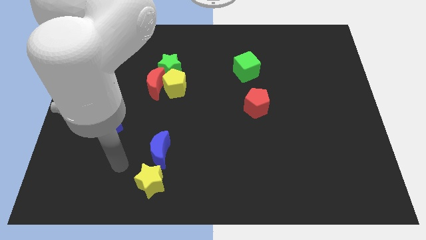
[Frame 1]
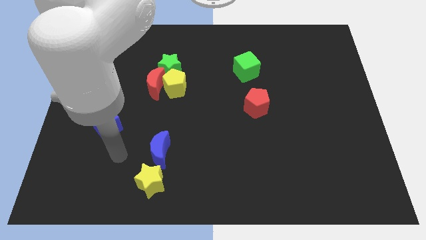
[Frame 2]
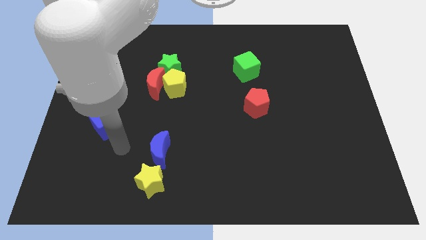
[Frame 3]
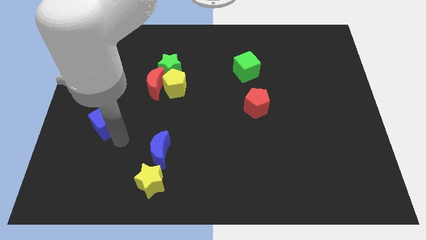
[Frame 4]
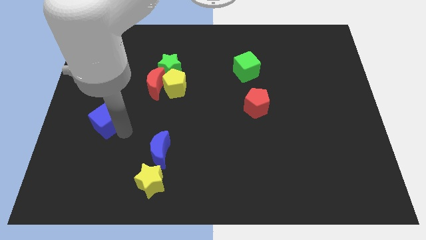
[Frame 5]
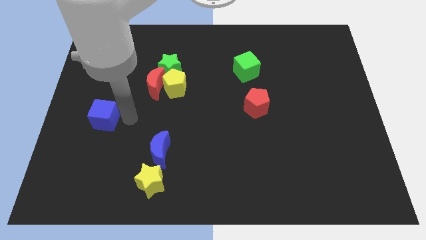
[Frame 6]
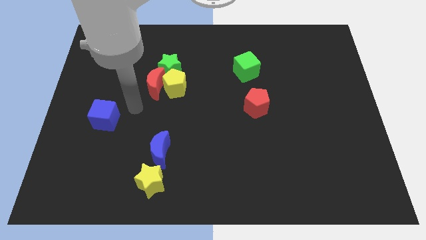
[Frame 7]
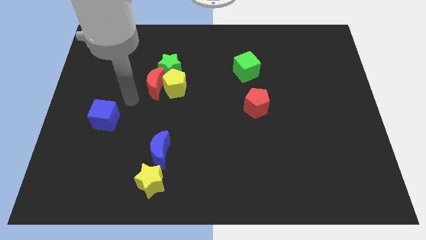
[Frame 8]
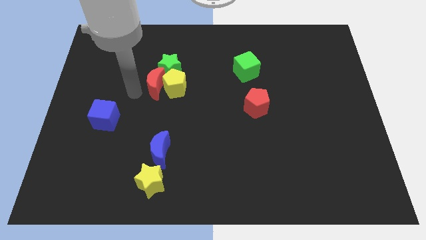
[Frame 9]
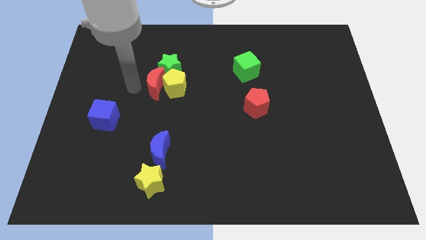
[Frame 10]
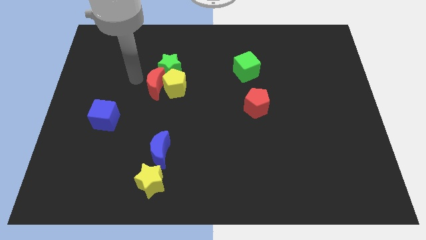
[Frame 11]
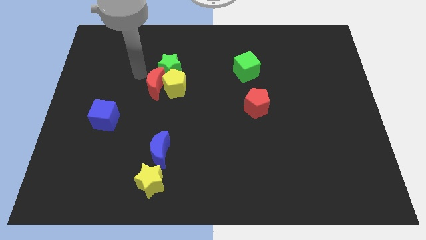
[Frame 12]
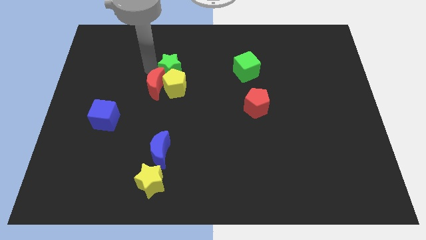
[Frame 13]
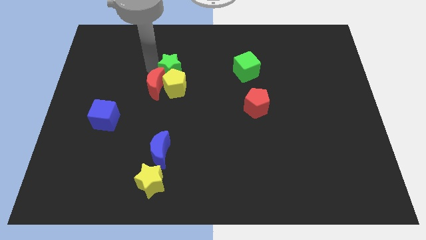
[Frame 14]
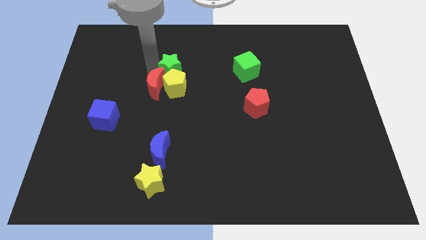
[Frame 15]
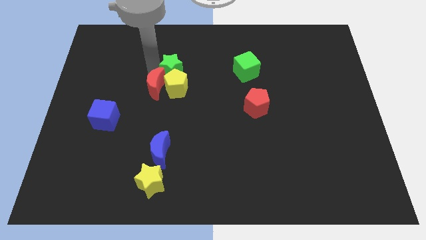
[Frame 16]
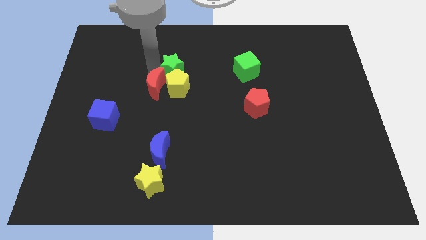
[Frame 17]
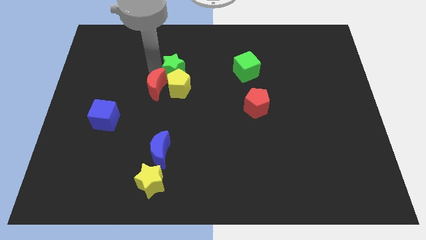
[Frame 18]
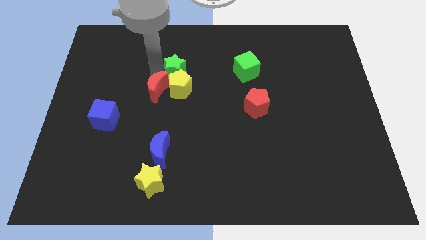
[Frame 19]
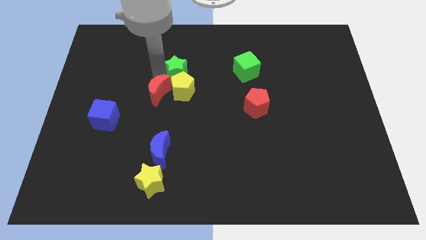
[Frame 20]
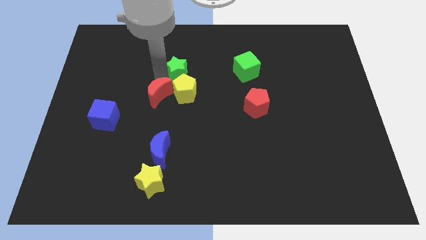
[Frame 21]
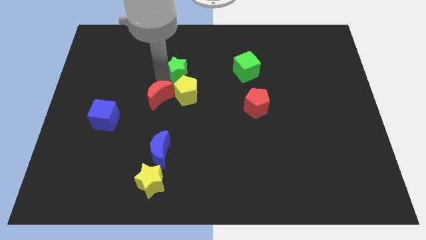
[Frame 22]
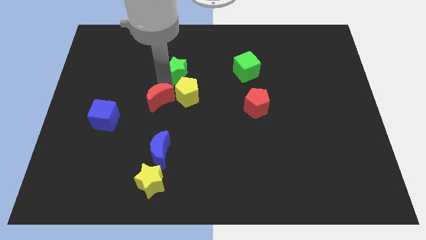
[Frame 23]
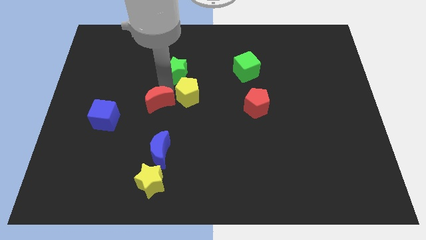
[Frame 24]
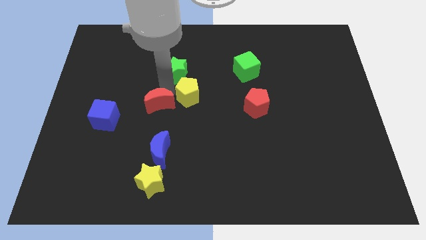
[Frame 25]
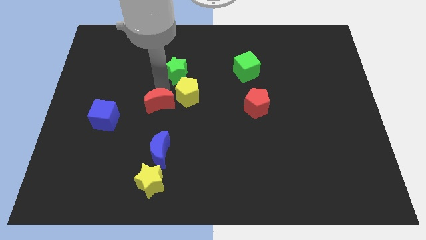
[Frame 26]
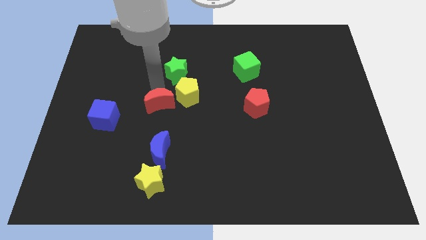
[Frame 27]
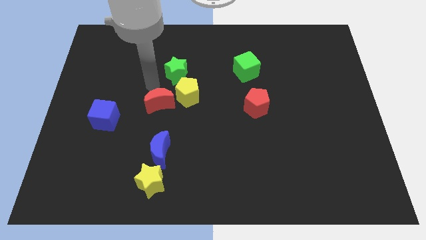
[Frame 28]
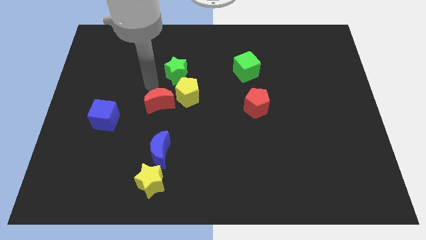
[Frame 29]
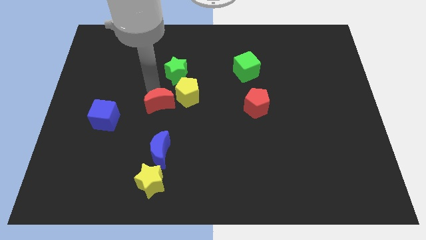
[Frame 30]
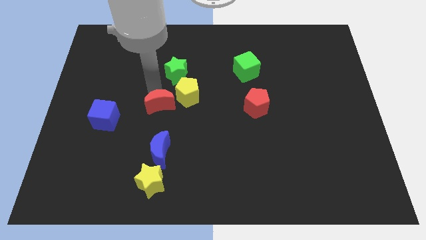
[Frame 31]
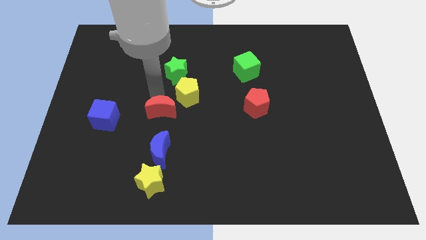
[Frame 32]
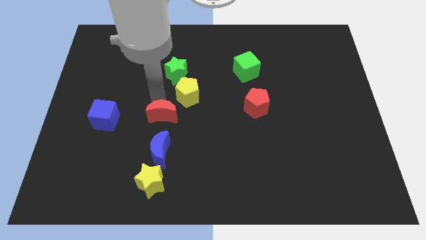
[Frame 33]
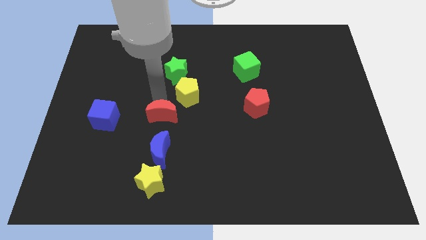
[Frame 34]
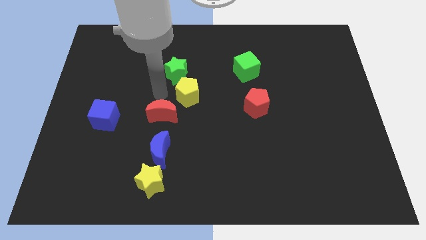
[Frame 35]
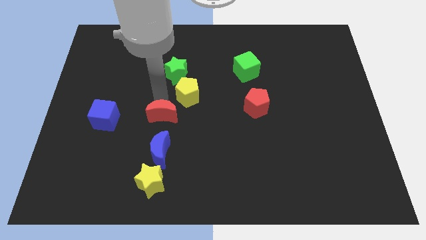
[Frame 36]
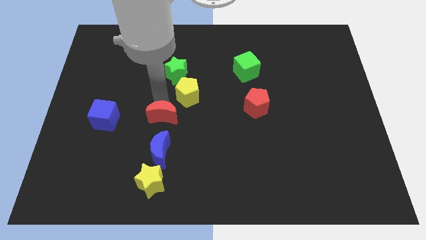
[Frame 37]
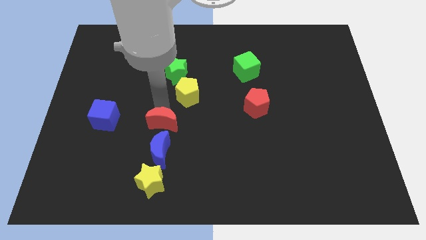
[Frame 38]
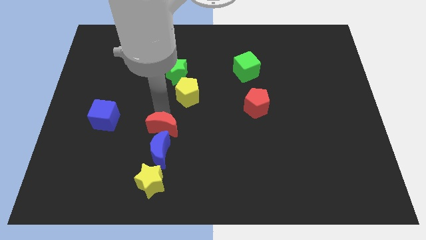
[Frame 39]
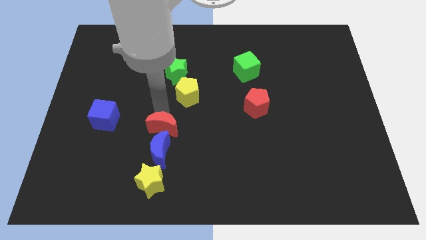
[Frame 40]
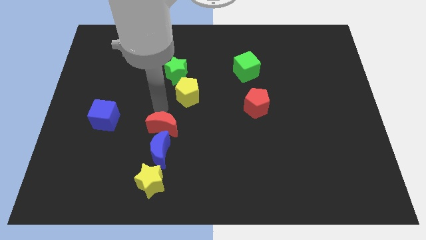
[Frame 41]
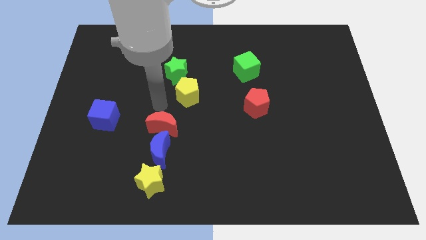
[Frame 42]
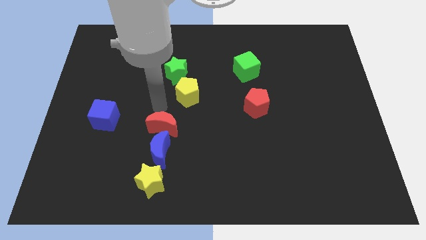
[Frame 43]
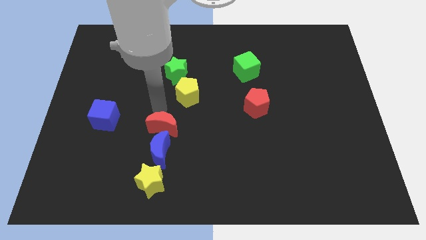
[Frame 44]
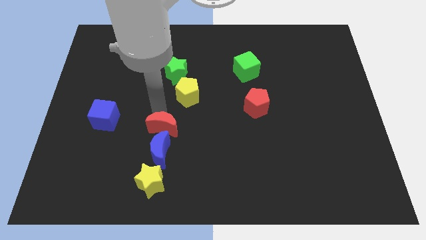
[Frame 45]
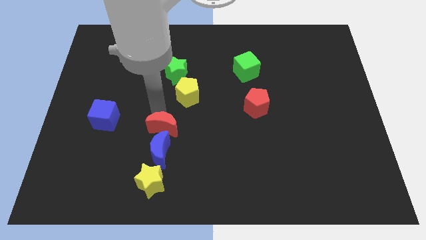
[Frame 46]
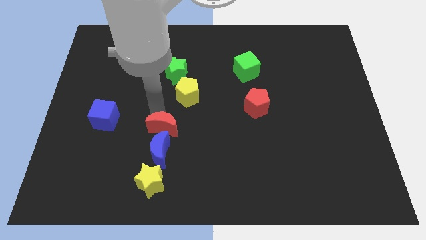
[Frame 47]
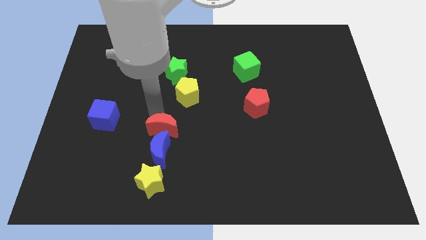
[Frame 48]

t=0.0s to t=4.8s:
put the red moon towards the blue moon

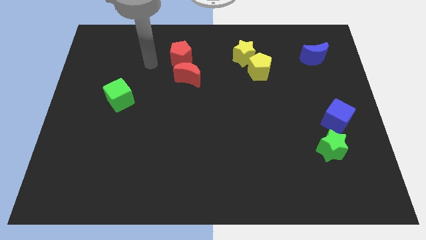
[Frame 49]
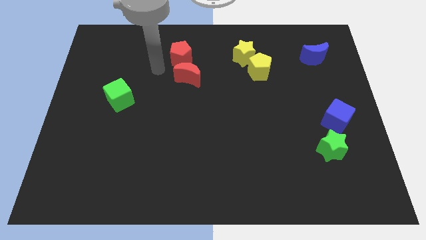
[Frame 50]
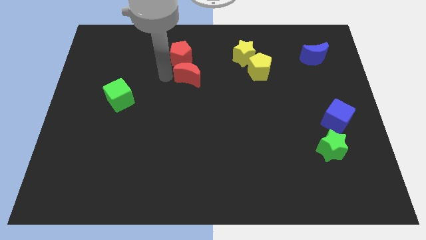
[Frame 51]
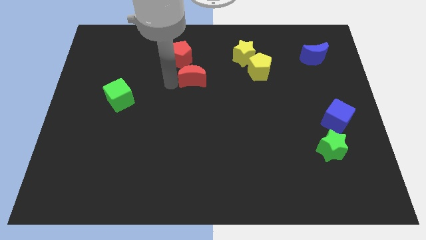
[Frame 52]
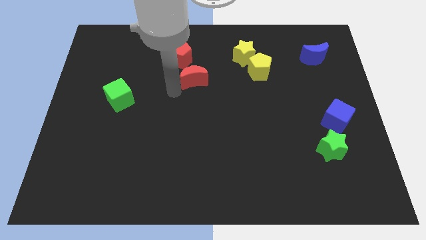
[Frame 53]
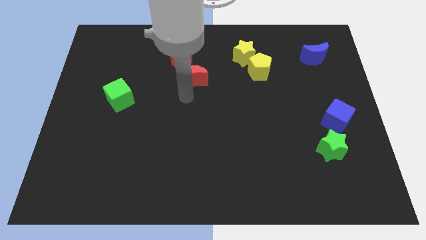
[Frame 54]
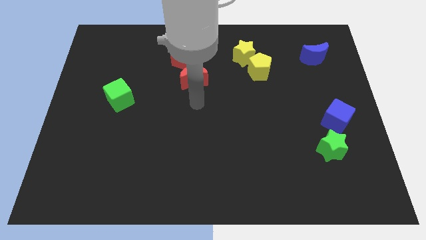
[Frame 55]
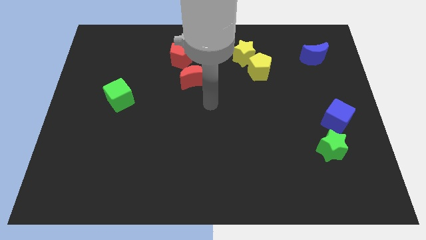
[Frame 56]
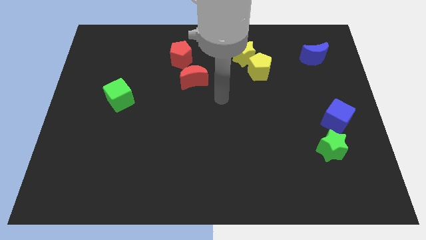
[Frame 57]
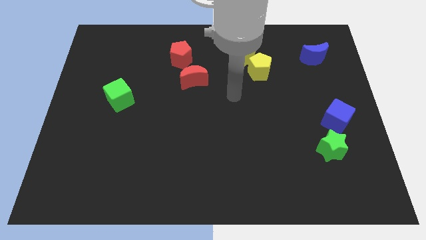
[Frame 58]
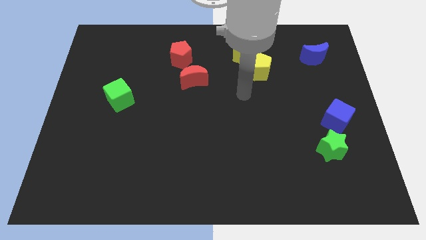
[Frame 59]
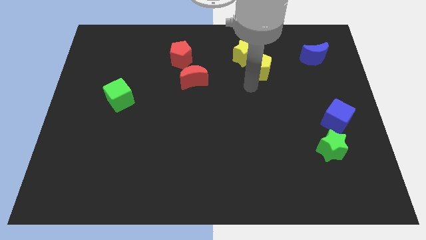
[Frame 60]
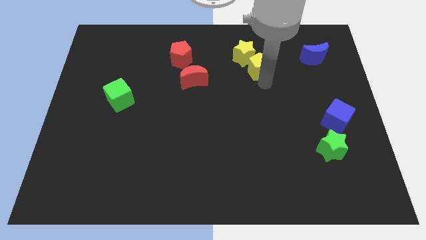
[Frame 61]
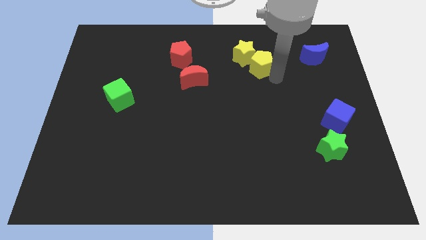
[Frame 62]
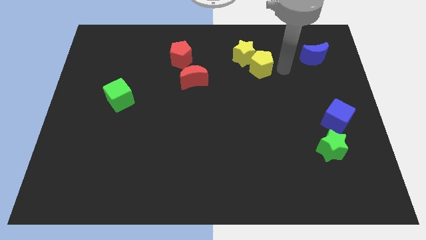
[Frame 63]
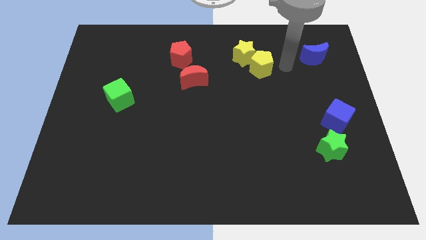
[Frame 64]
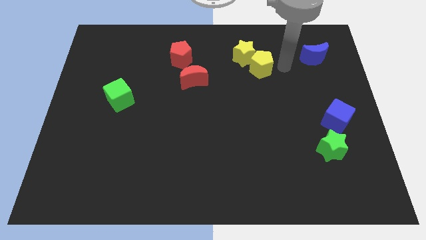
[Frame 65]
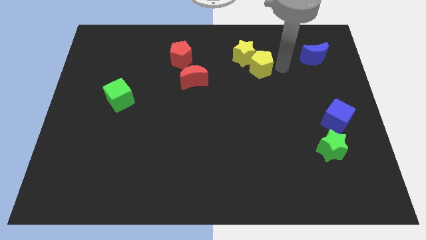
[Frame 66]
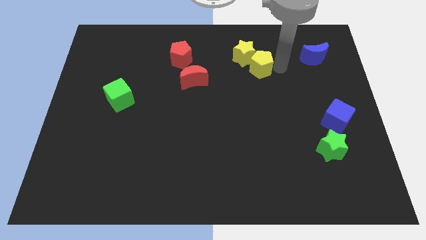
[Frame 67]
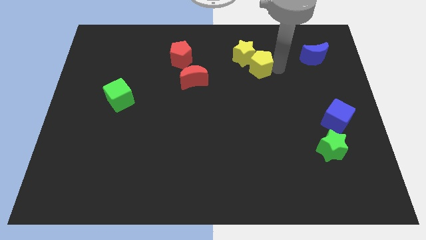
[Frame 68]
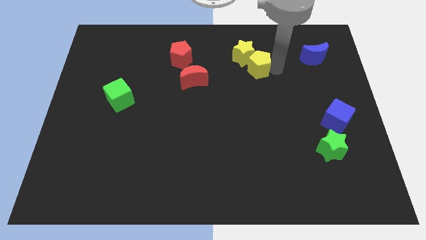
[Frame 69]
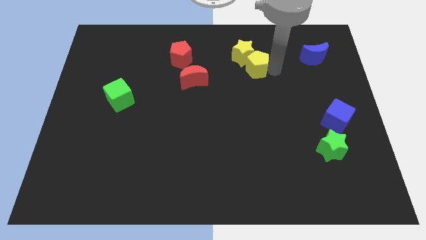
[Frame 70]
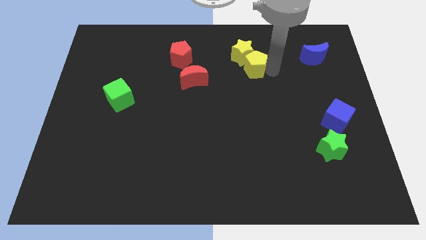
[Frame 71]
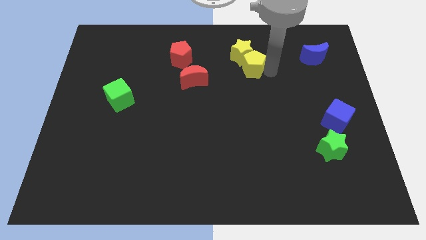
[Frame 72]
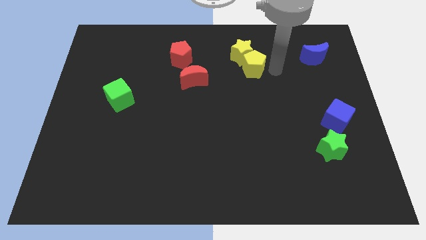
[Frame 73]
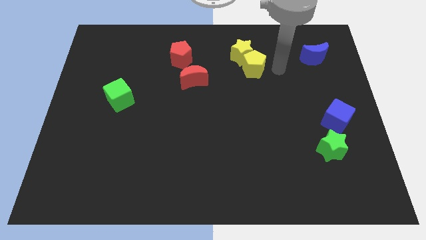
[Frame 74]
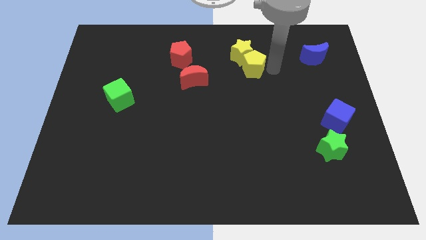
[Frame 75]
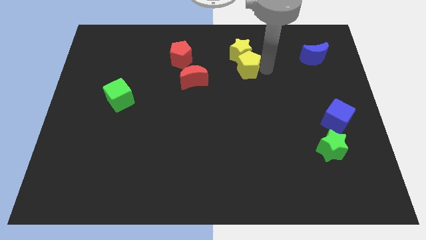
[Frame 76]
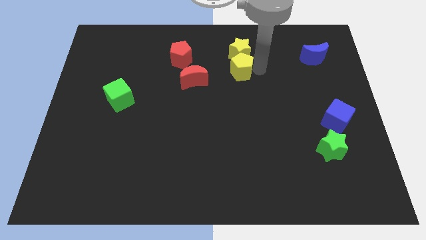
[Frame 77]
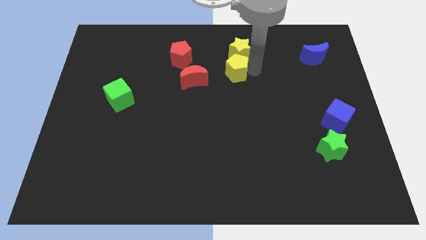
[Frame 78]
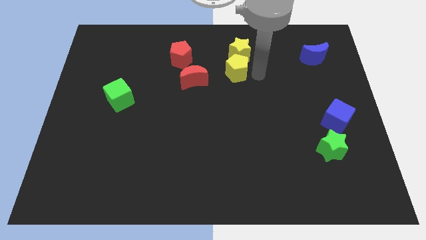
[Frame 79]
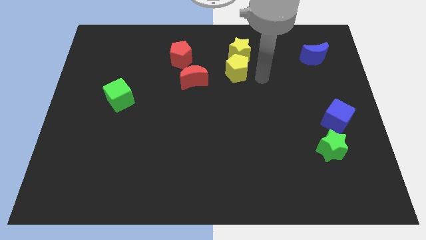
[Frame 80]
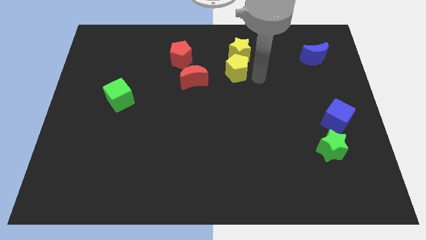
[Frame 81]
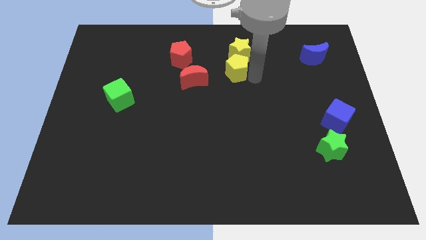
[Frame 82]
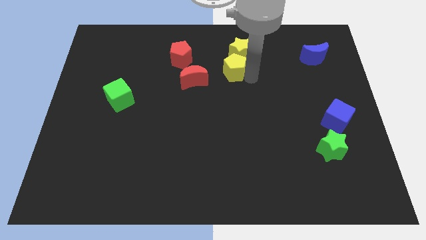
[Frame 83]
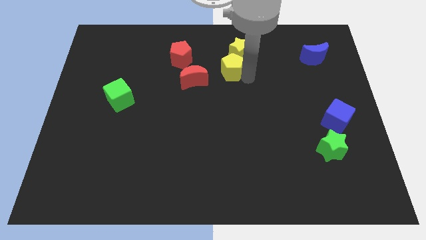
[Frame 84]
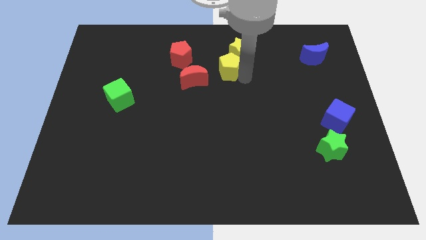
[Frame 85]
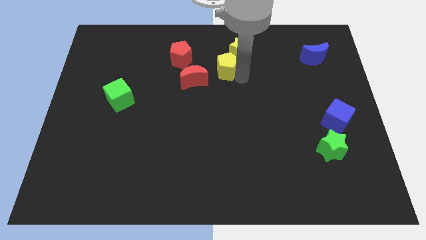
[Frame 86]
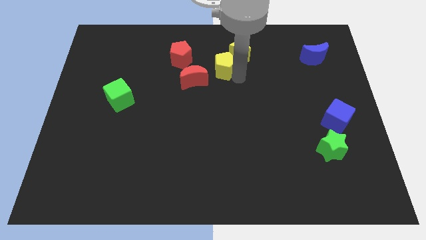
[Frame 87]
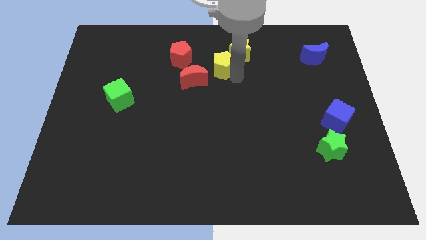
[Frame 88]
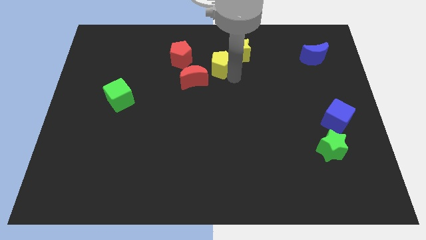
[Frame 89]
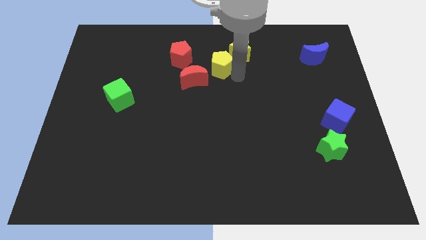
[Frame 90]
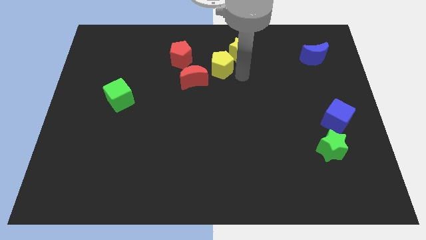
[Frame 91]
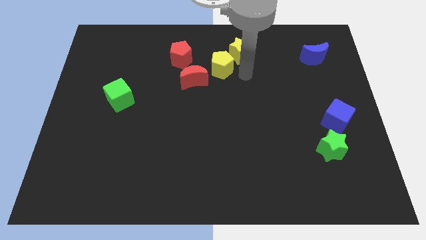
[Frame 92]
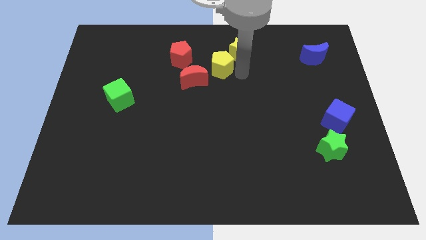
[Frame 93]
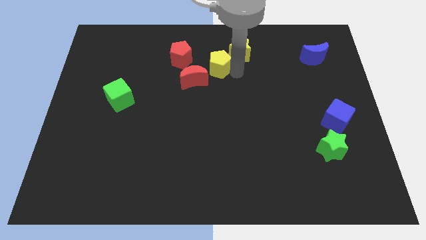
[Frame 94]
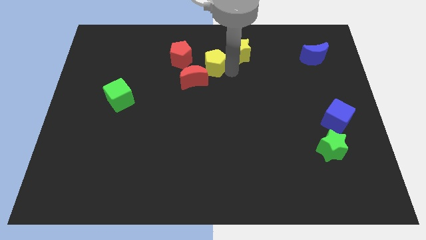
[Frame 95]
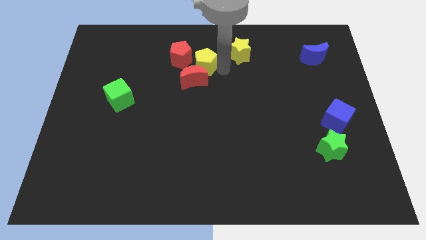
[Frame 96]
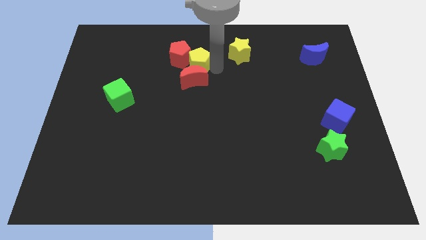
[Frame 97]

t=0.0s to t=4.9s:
put the yellow pentagon next to the red pentagon
